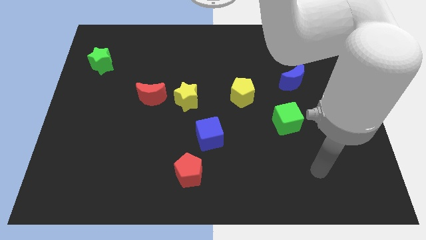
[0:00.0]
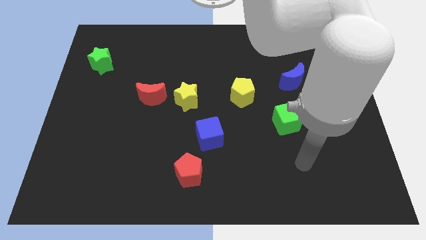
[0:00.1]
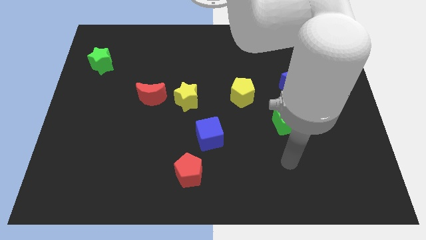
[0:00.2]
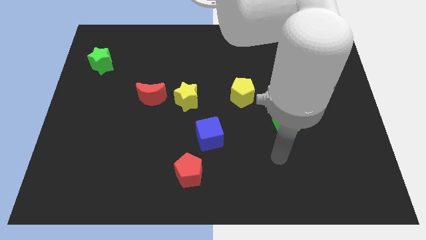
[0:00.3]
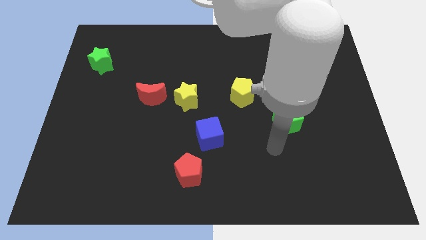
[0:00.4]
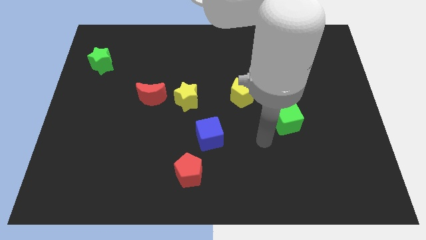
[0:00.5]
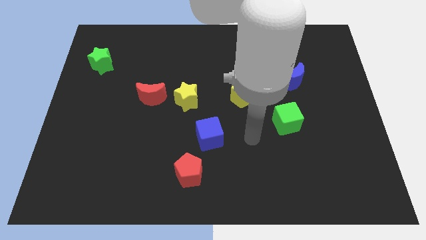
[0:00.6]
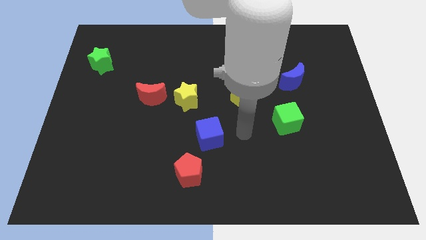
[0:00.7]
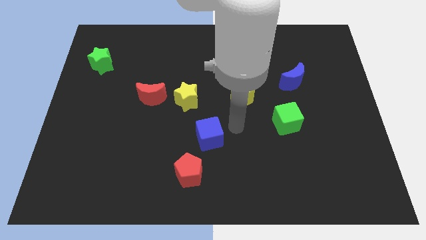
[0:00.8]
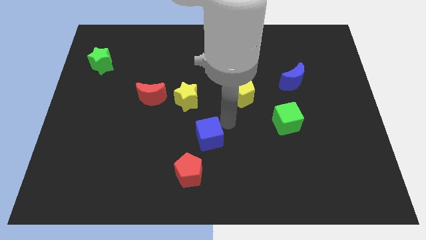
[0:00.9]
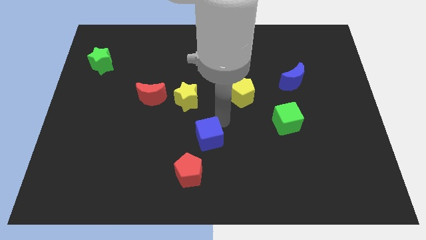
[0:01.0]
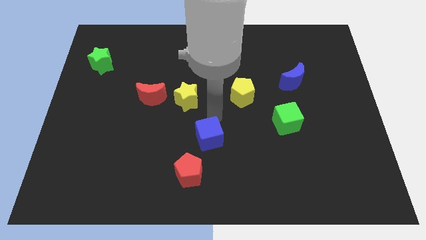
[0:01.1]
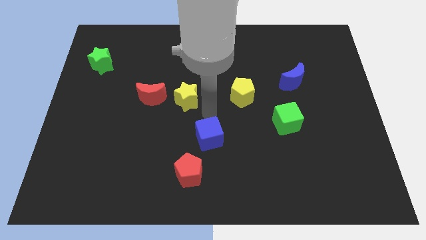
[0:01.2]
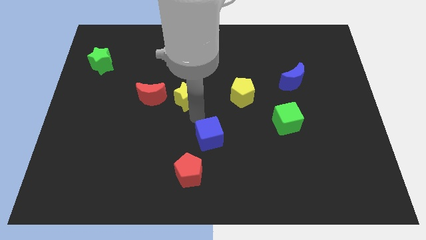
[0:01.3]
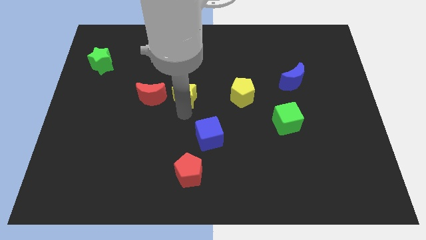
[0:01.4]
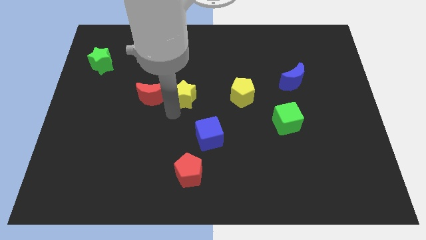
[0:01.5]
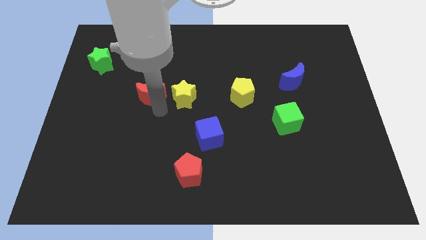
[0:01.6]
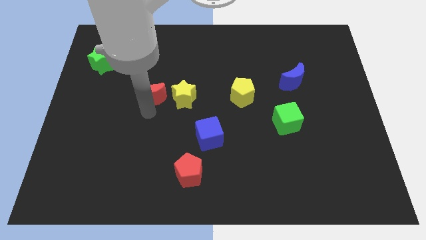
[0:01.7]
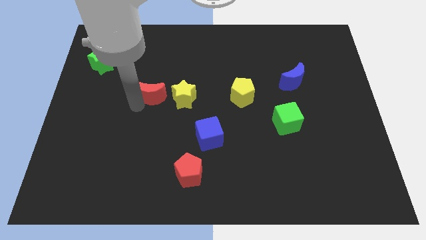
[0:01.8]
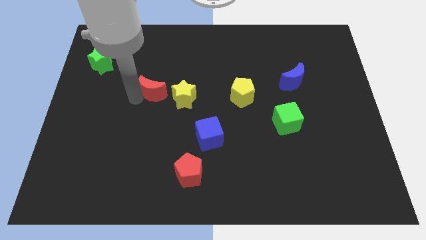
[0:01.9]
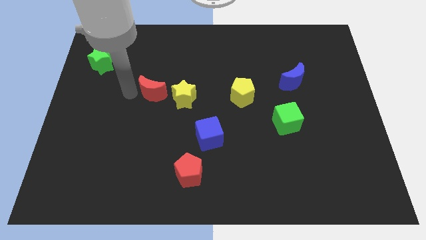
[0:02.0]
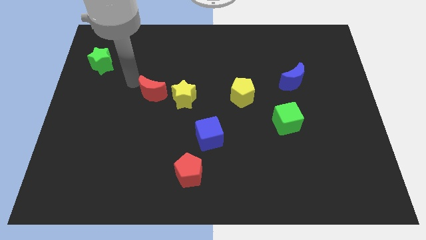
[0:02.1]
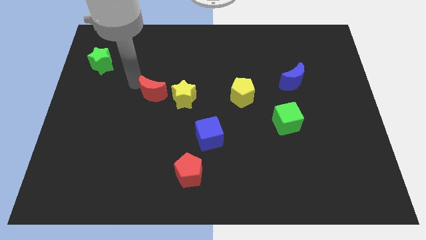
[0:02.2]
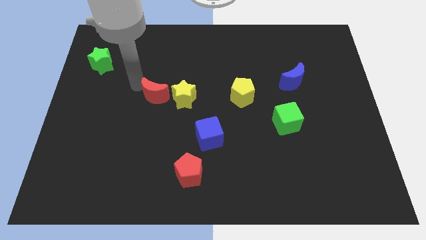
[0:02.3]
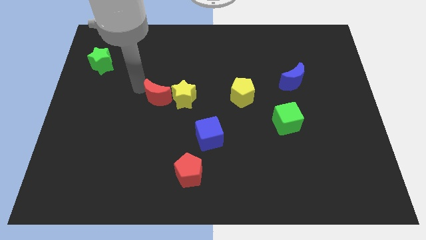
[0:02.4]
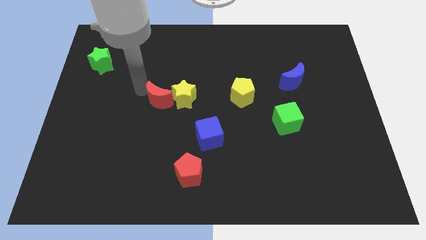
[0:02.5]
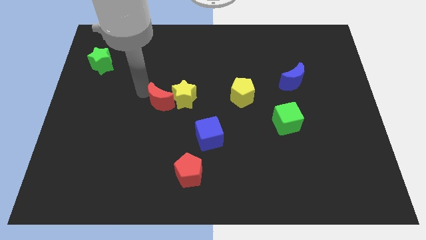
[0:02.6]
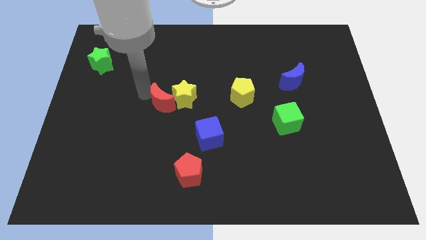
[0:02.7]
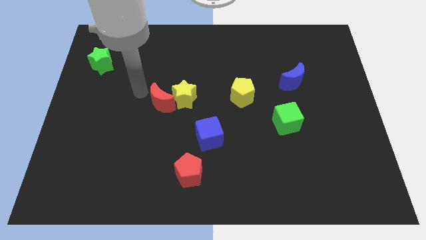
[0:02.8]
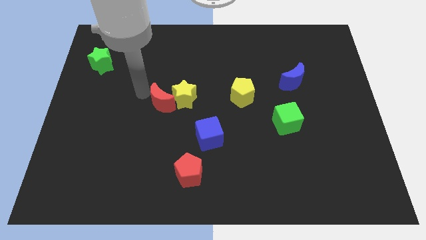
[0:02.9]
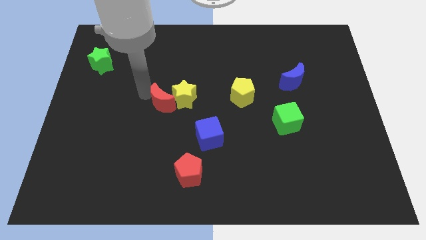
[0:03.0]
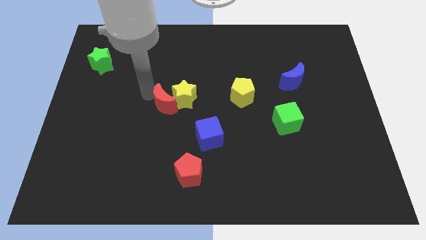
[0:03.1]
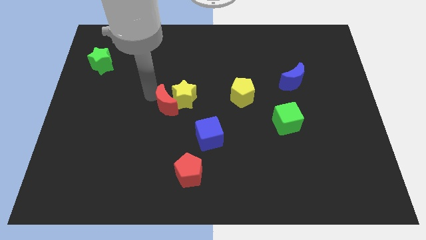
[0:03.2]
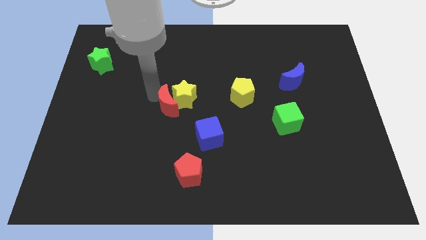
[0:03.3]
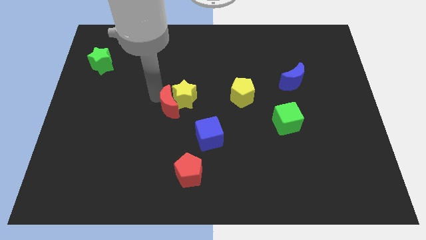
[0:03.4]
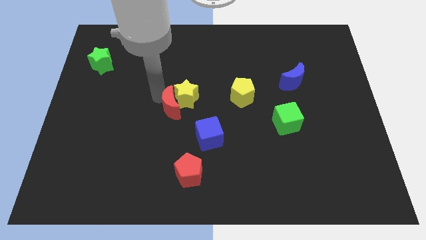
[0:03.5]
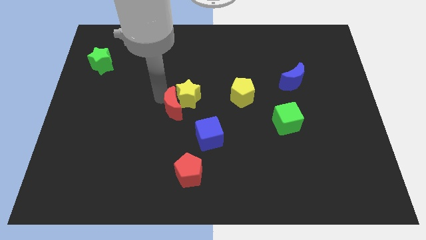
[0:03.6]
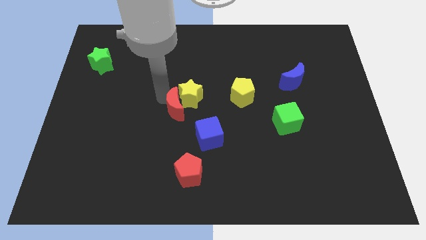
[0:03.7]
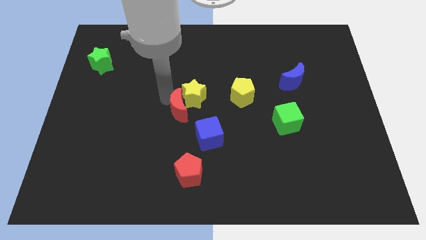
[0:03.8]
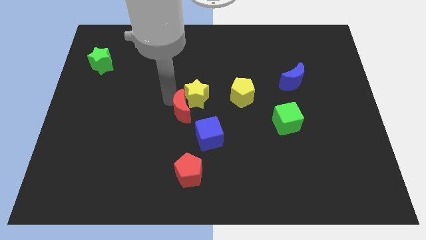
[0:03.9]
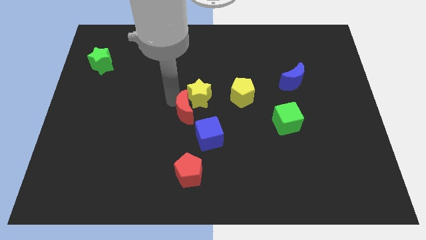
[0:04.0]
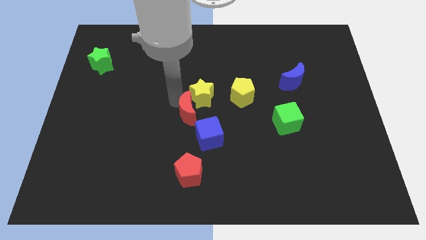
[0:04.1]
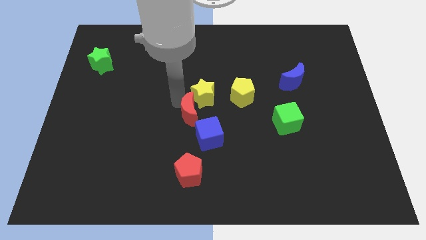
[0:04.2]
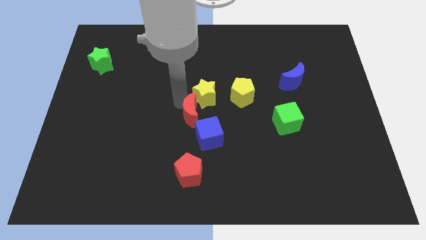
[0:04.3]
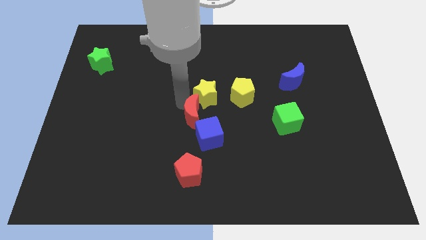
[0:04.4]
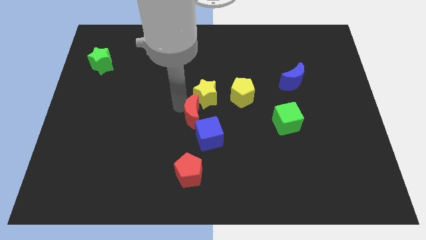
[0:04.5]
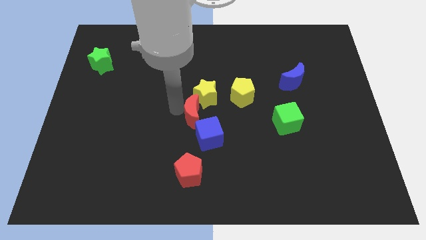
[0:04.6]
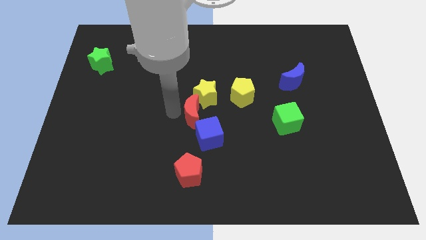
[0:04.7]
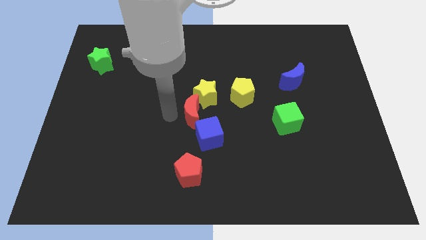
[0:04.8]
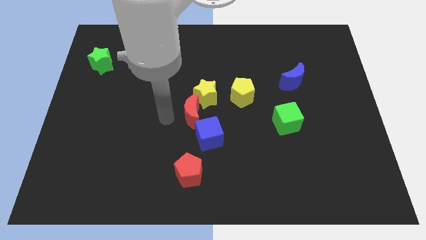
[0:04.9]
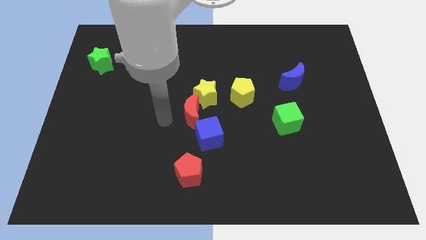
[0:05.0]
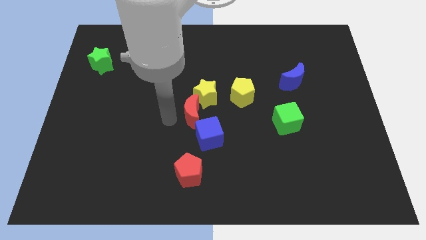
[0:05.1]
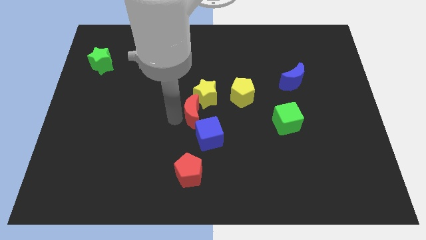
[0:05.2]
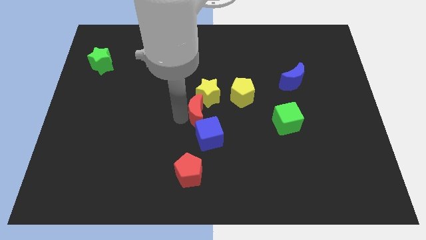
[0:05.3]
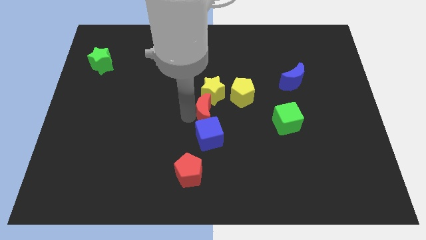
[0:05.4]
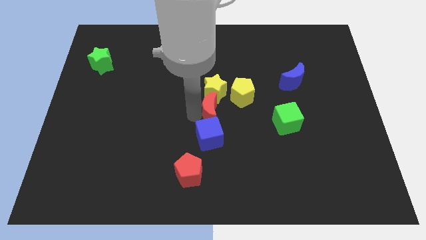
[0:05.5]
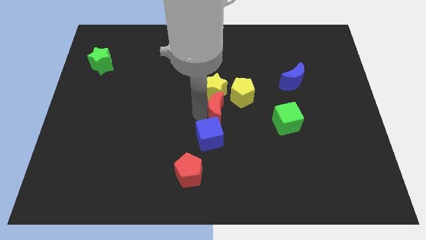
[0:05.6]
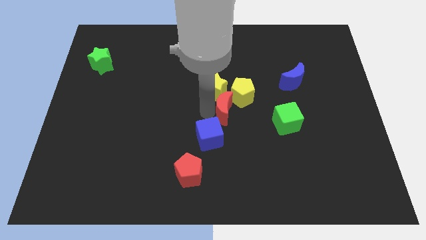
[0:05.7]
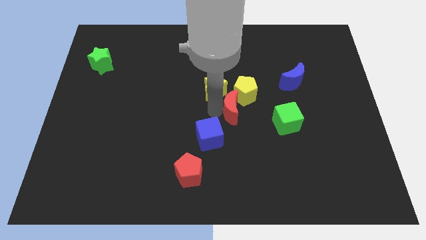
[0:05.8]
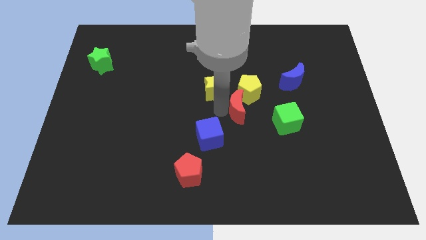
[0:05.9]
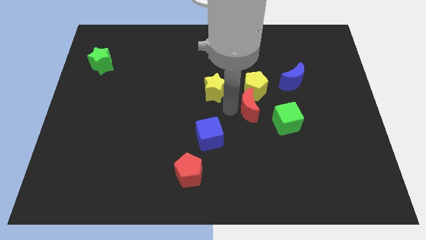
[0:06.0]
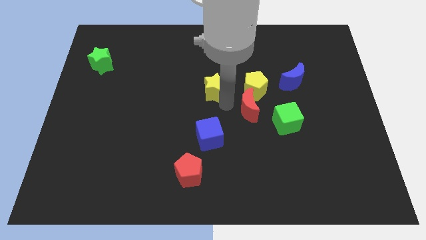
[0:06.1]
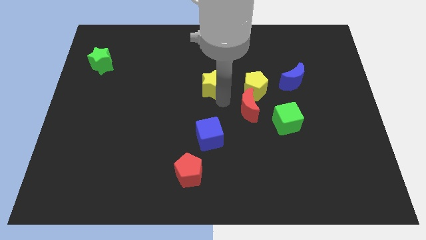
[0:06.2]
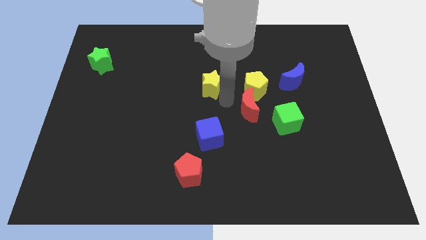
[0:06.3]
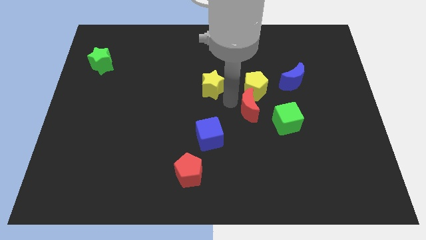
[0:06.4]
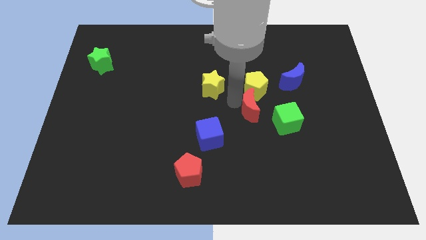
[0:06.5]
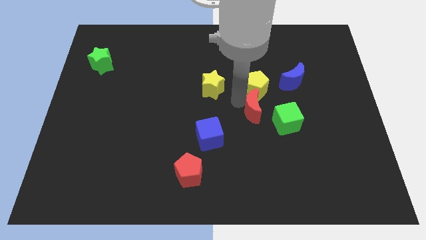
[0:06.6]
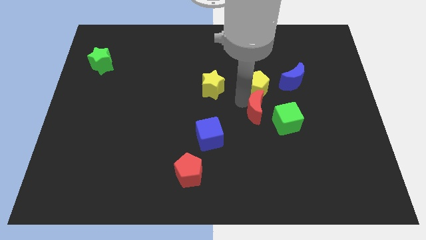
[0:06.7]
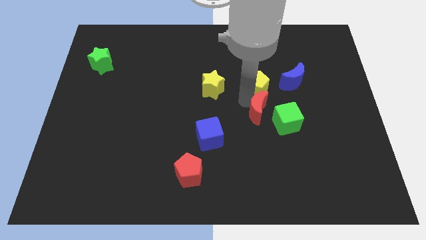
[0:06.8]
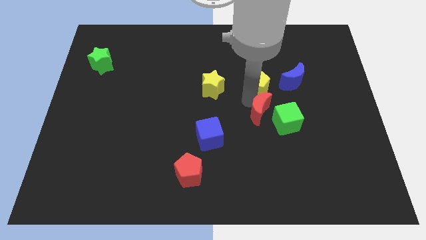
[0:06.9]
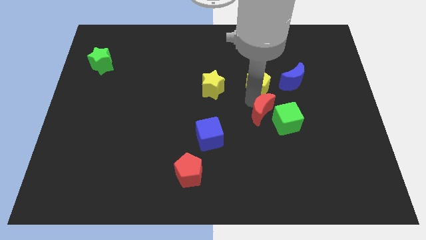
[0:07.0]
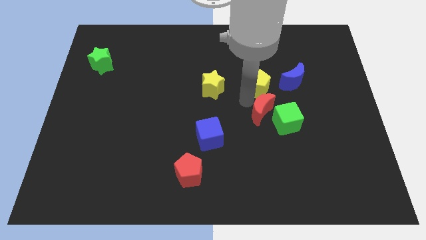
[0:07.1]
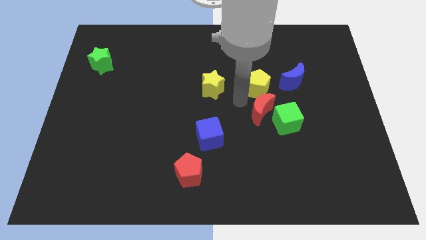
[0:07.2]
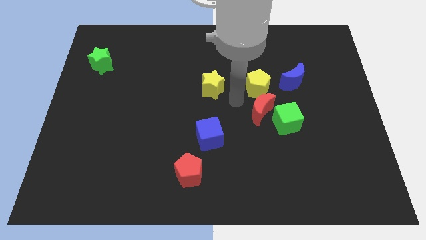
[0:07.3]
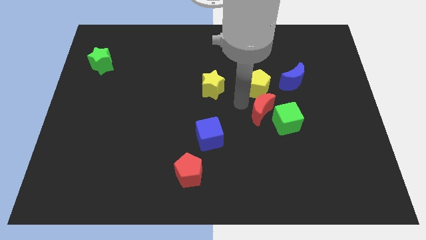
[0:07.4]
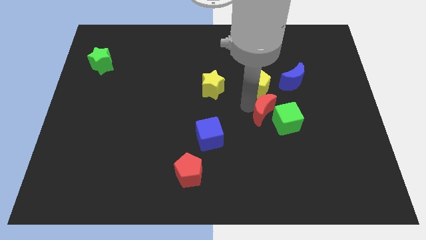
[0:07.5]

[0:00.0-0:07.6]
slide the red moon close to the green cube
